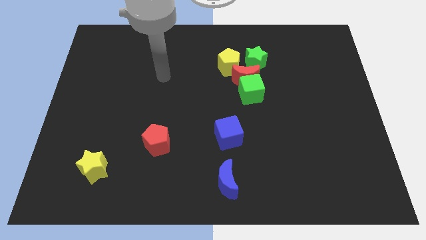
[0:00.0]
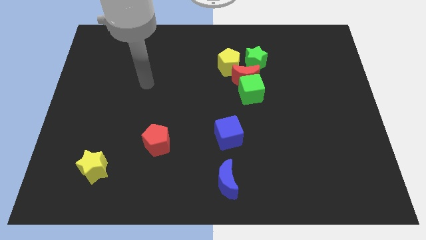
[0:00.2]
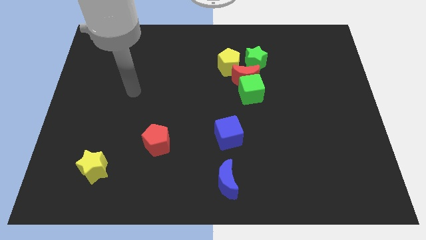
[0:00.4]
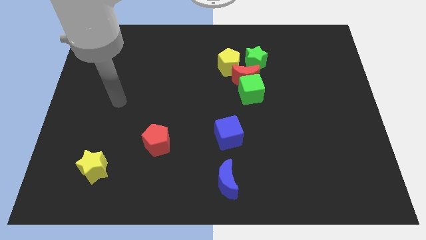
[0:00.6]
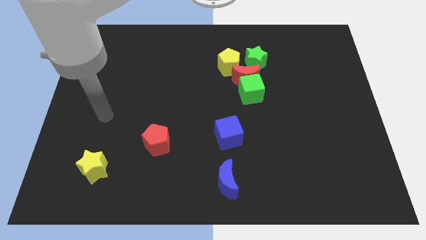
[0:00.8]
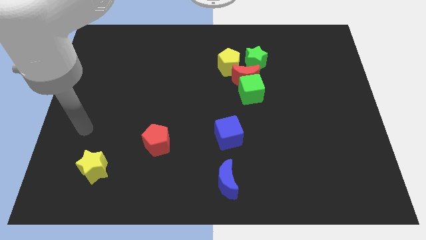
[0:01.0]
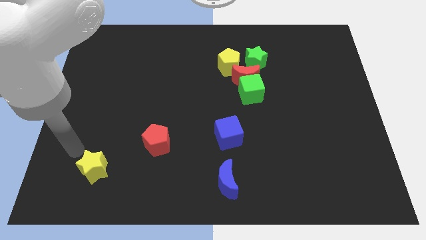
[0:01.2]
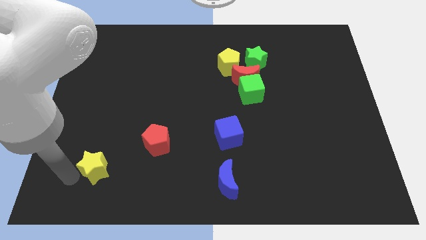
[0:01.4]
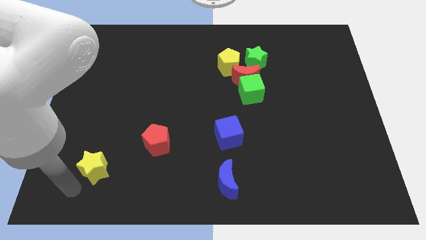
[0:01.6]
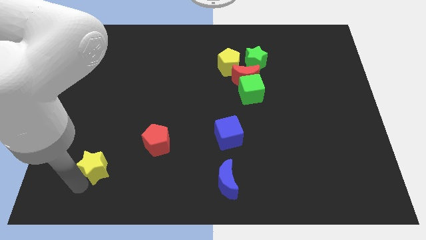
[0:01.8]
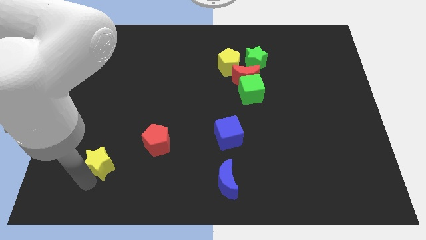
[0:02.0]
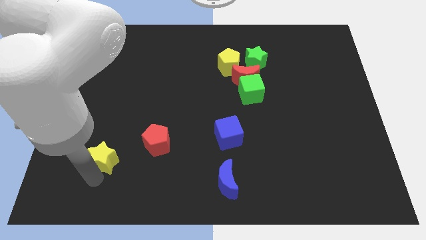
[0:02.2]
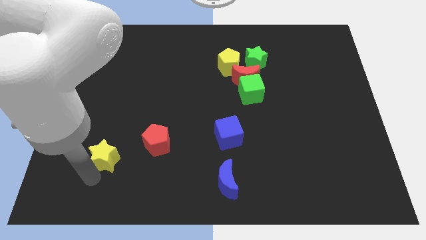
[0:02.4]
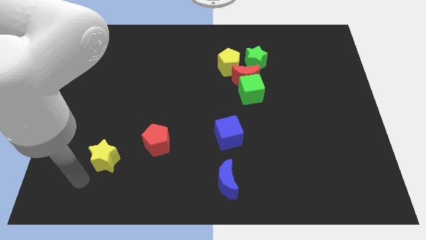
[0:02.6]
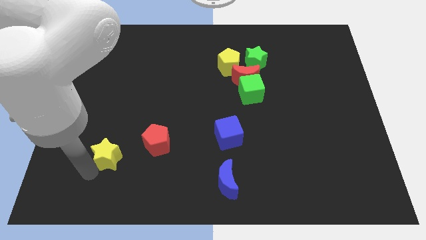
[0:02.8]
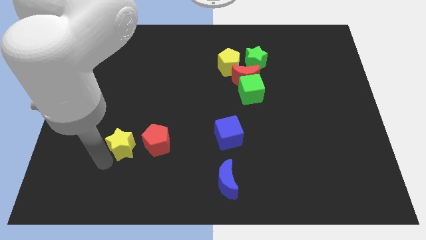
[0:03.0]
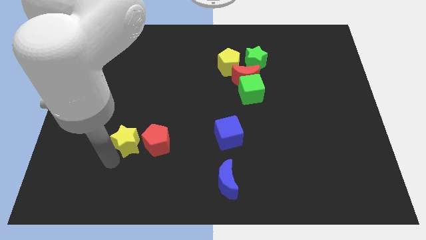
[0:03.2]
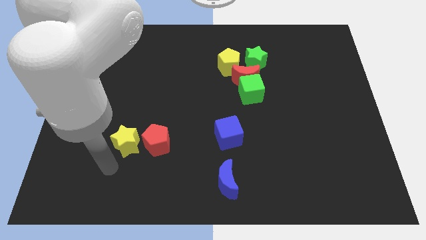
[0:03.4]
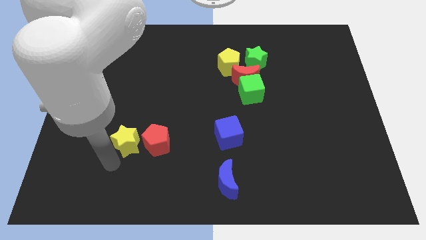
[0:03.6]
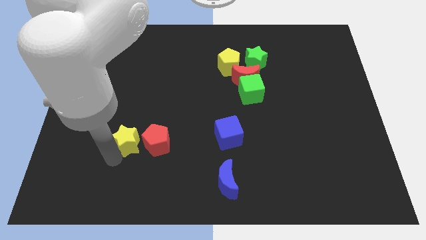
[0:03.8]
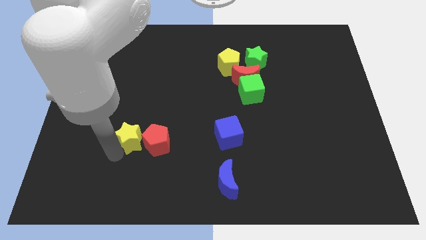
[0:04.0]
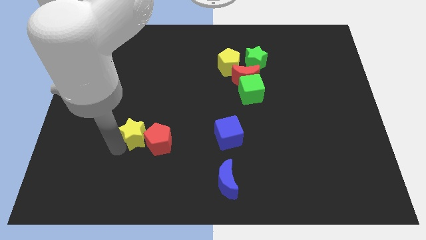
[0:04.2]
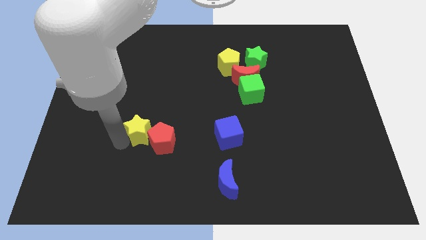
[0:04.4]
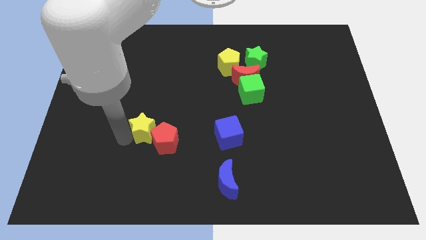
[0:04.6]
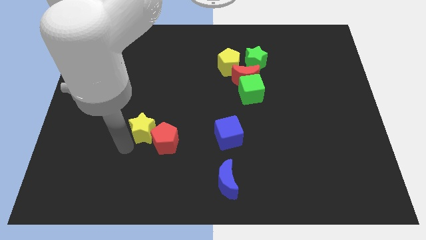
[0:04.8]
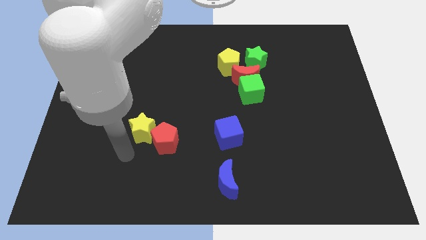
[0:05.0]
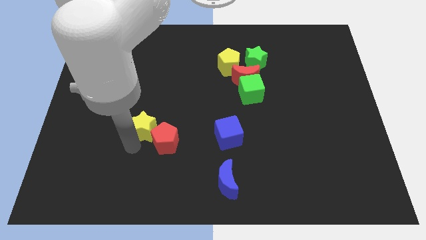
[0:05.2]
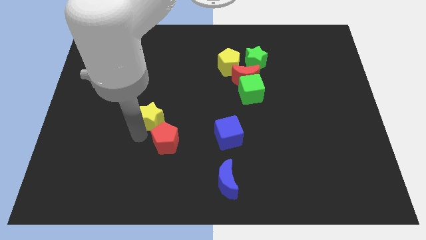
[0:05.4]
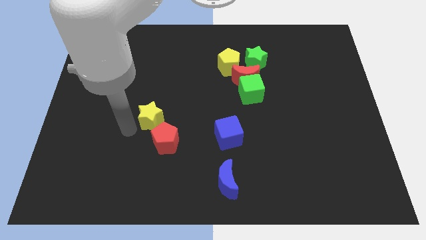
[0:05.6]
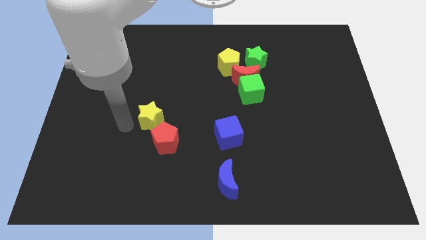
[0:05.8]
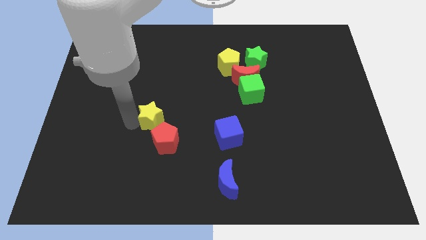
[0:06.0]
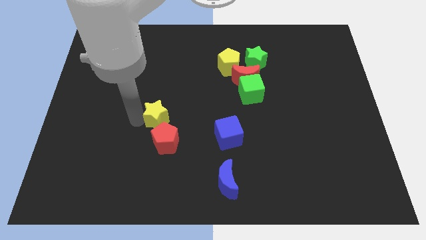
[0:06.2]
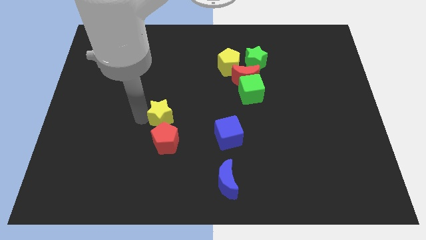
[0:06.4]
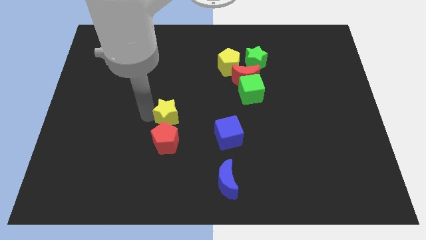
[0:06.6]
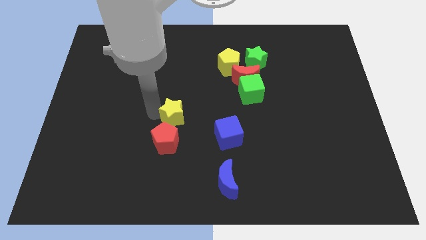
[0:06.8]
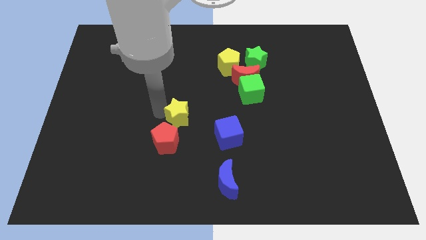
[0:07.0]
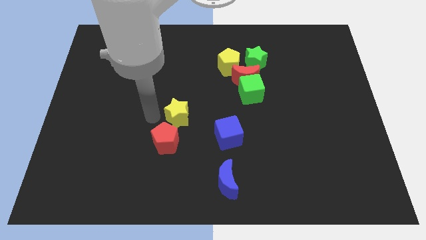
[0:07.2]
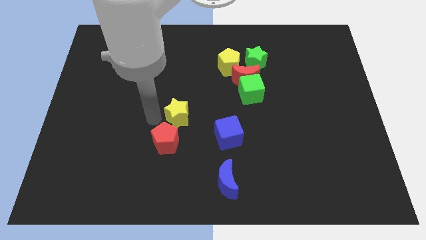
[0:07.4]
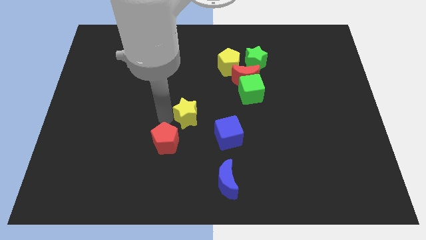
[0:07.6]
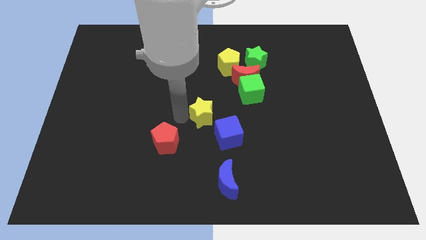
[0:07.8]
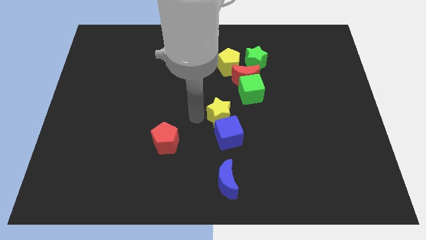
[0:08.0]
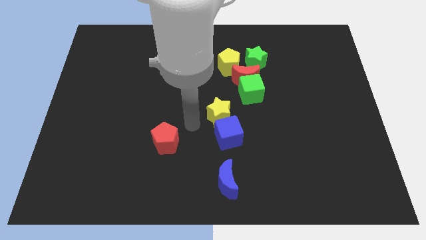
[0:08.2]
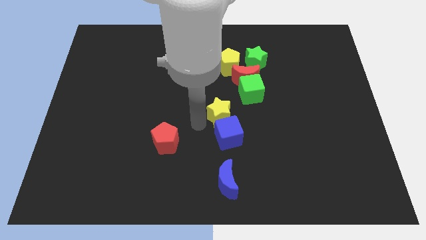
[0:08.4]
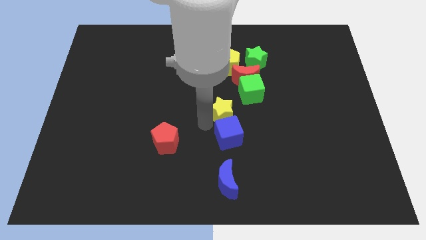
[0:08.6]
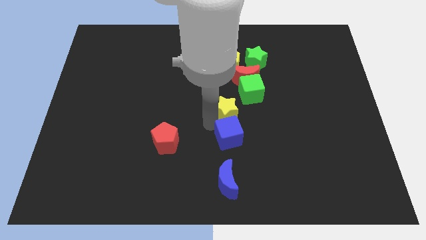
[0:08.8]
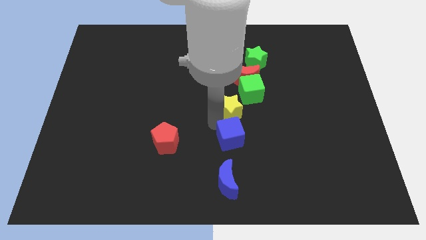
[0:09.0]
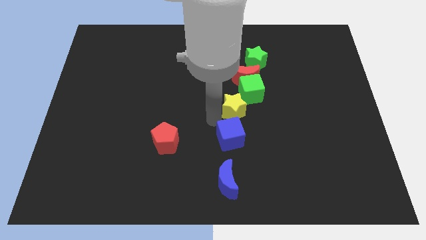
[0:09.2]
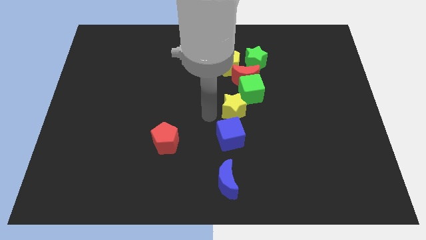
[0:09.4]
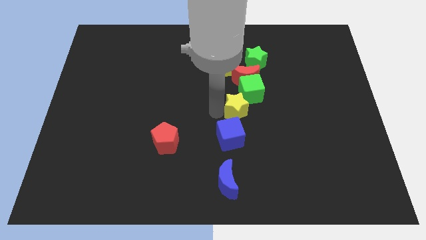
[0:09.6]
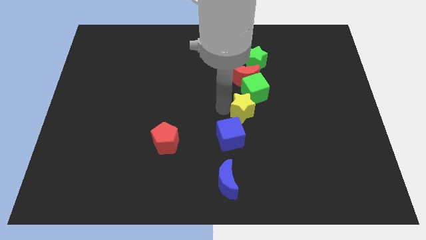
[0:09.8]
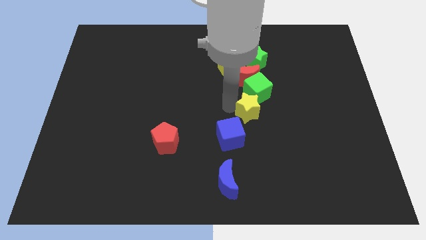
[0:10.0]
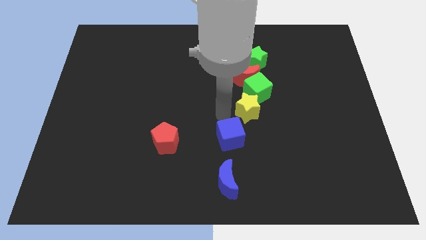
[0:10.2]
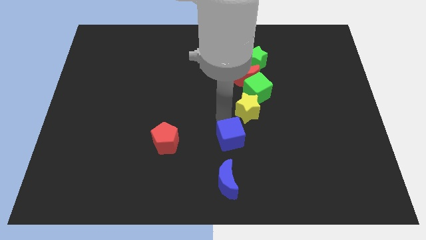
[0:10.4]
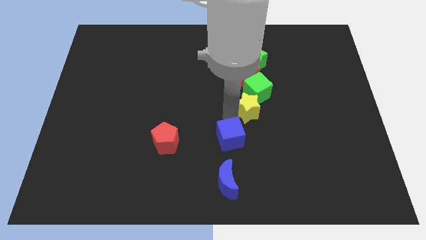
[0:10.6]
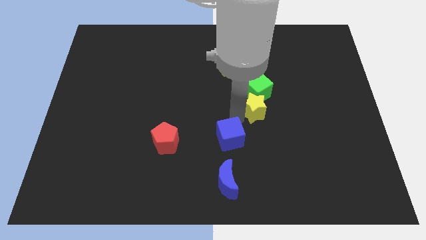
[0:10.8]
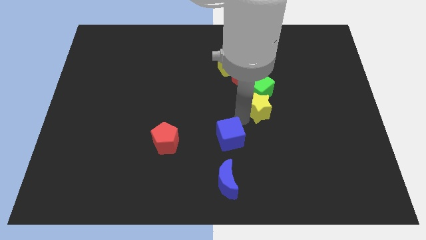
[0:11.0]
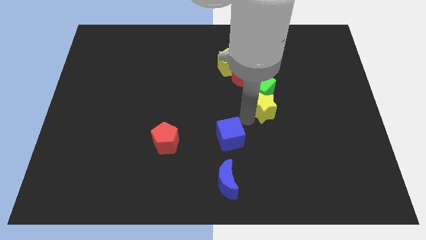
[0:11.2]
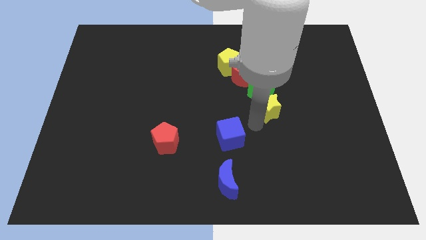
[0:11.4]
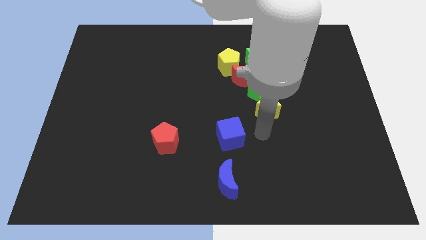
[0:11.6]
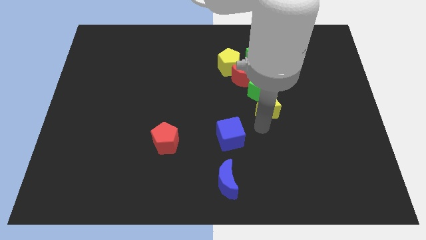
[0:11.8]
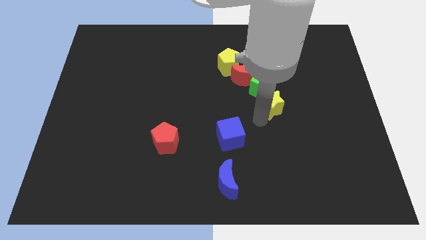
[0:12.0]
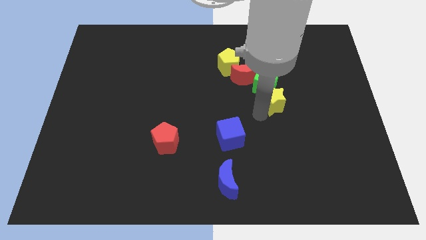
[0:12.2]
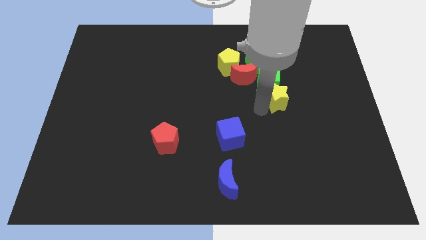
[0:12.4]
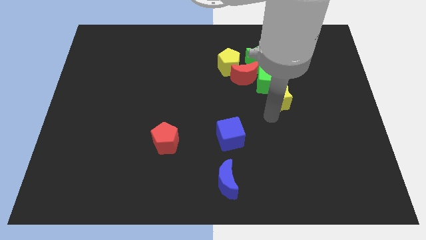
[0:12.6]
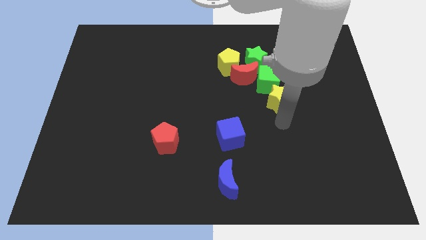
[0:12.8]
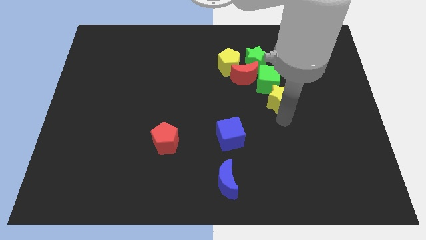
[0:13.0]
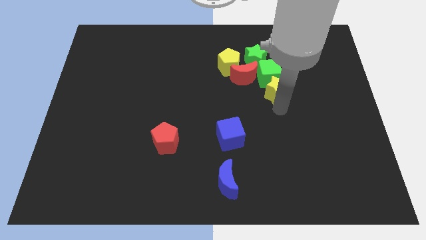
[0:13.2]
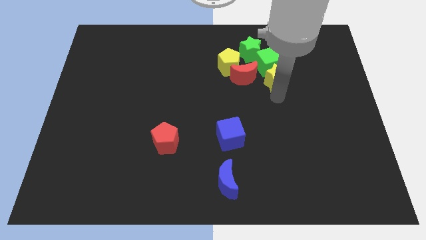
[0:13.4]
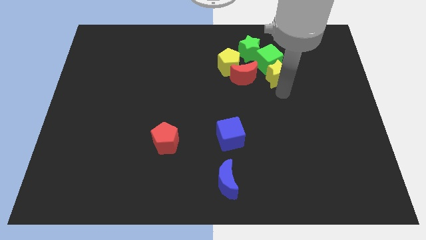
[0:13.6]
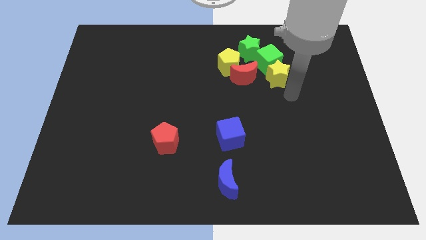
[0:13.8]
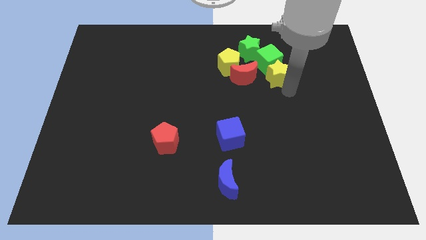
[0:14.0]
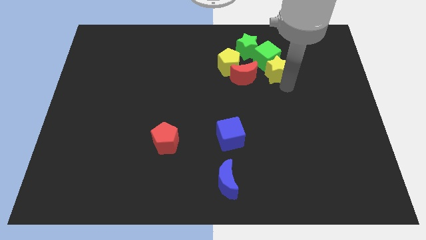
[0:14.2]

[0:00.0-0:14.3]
push the yellow star to the top right side of the red moon
